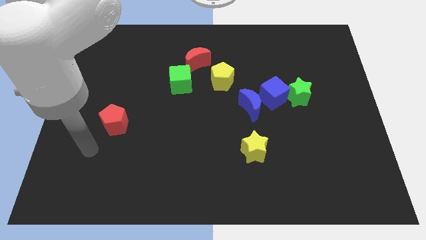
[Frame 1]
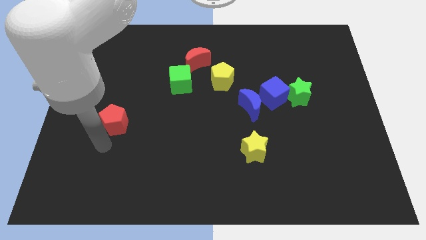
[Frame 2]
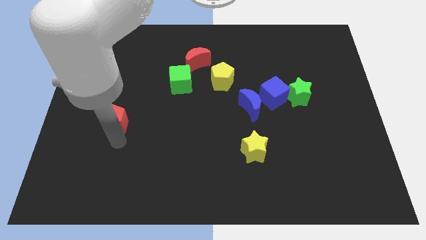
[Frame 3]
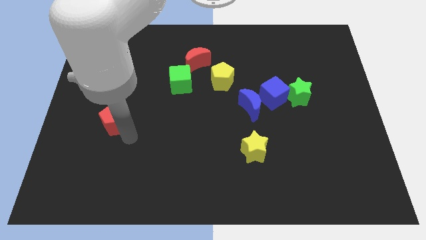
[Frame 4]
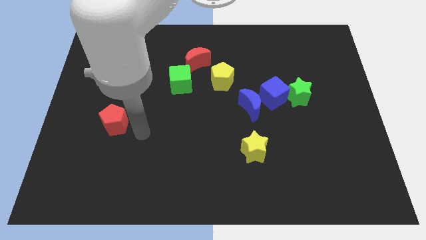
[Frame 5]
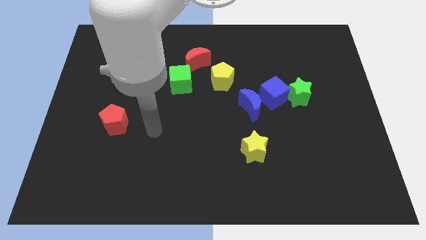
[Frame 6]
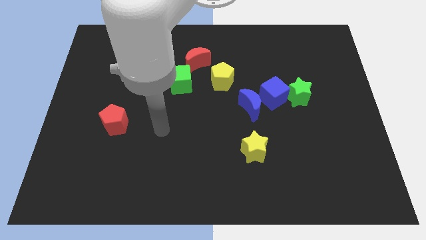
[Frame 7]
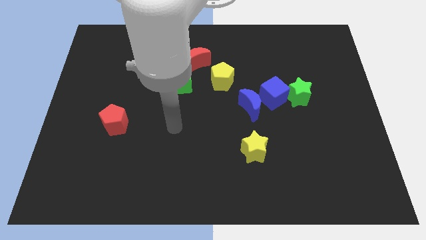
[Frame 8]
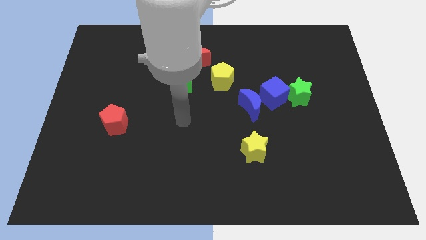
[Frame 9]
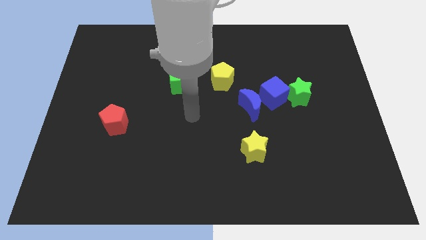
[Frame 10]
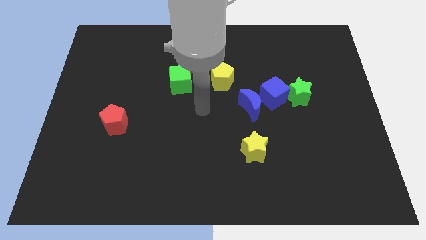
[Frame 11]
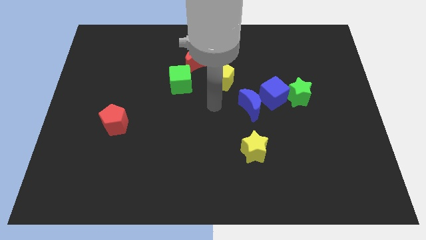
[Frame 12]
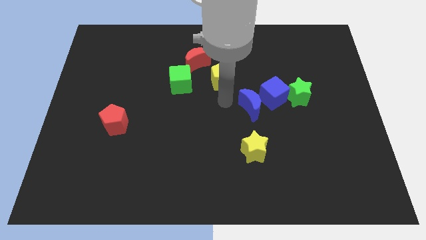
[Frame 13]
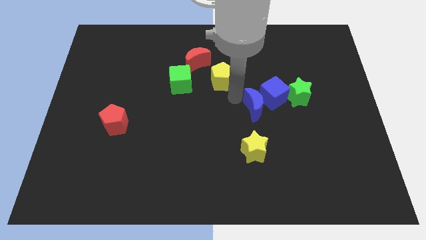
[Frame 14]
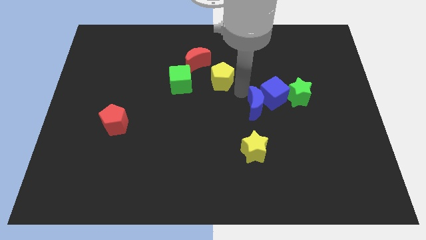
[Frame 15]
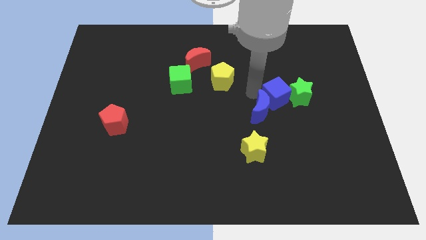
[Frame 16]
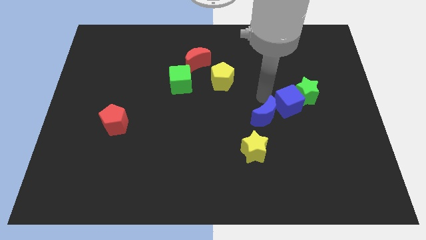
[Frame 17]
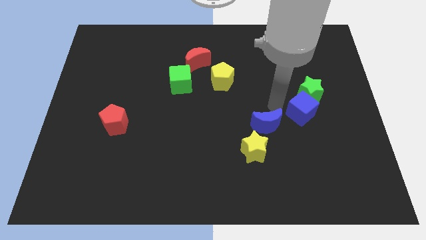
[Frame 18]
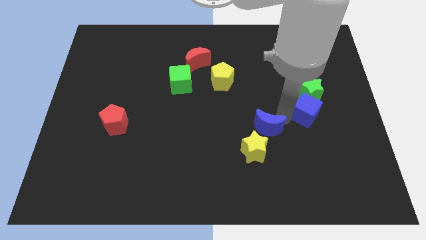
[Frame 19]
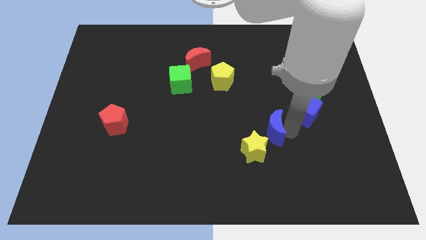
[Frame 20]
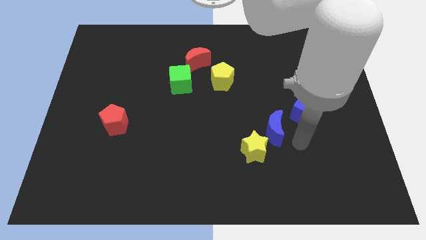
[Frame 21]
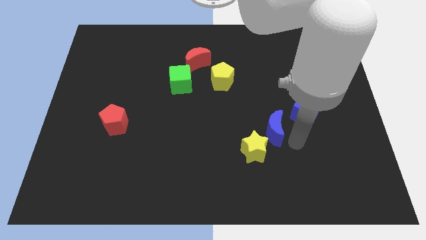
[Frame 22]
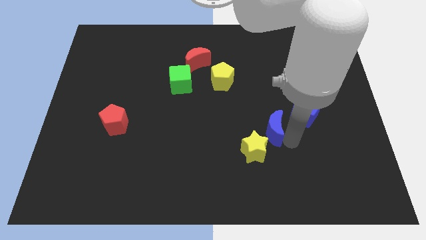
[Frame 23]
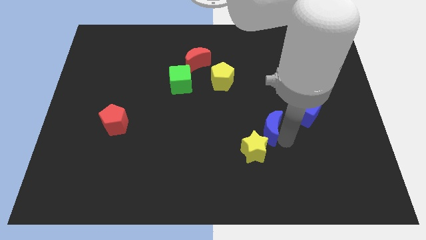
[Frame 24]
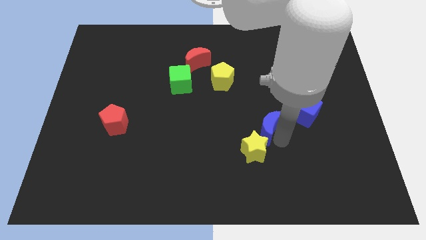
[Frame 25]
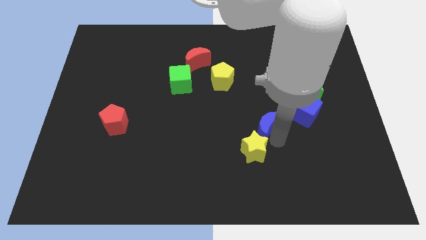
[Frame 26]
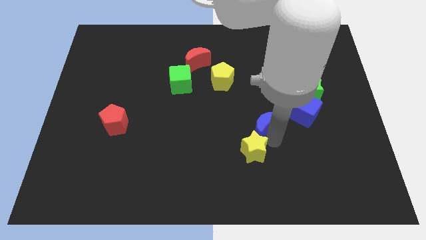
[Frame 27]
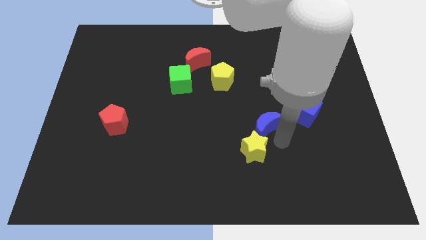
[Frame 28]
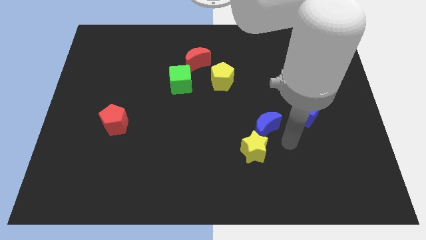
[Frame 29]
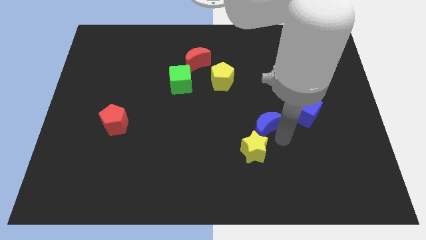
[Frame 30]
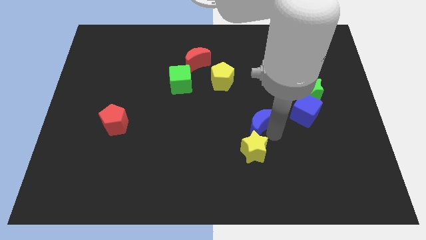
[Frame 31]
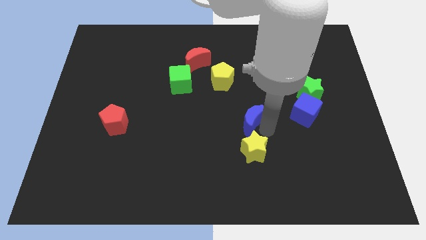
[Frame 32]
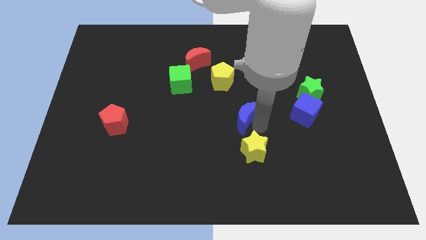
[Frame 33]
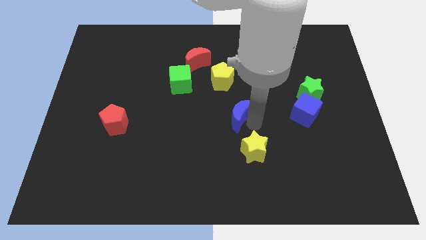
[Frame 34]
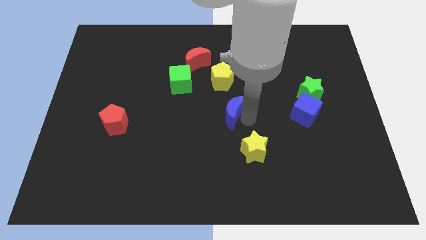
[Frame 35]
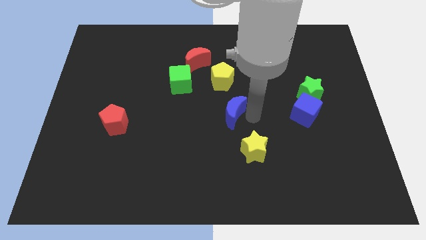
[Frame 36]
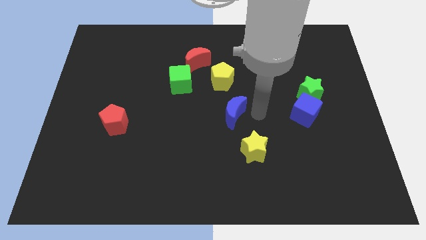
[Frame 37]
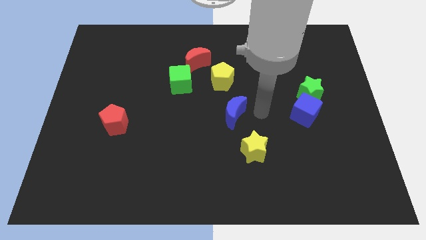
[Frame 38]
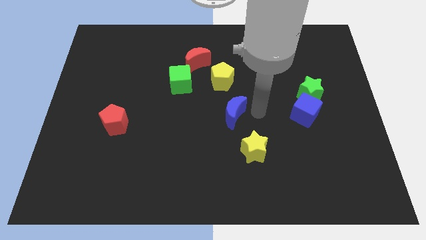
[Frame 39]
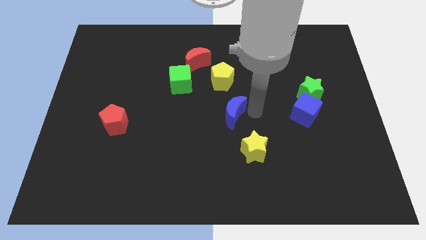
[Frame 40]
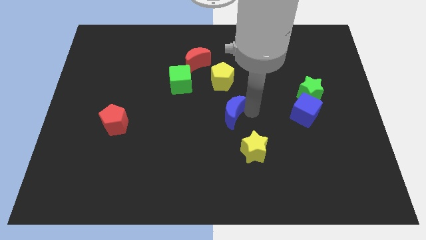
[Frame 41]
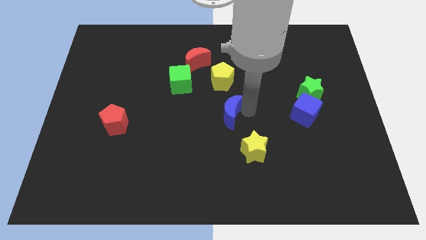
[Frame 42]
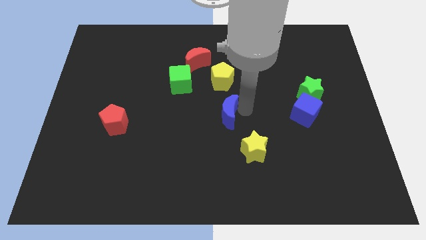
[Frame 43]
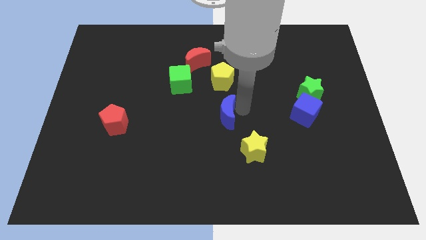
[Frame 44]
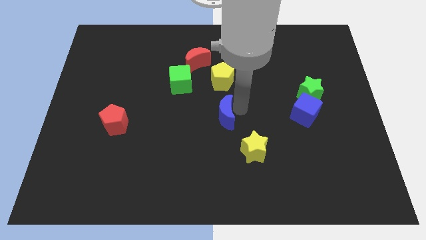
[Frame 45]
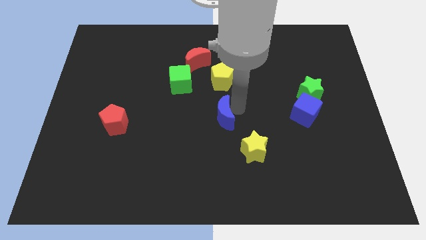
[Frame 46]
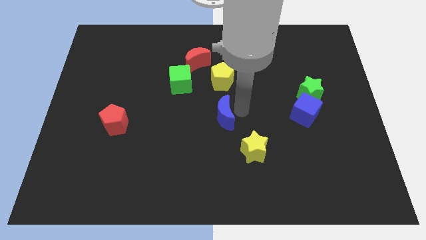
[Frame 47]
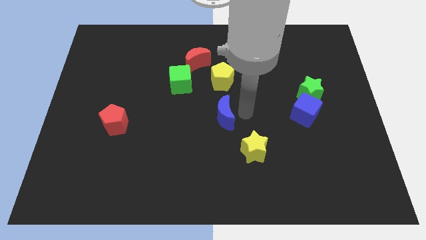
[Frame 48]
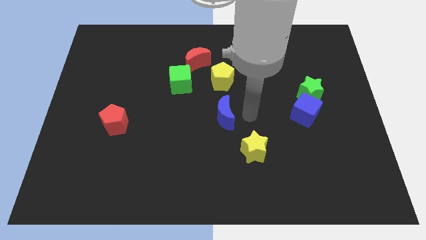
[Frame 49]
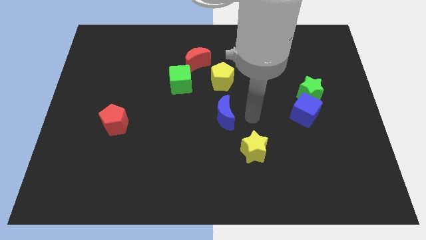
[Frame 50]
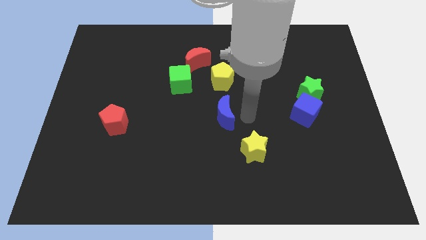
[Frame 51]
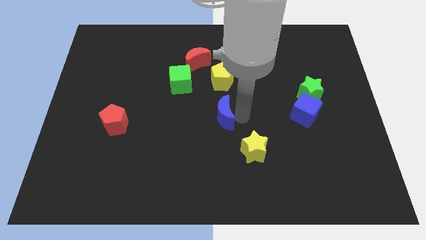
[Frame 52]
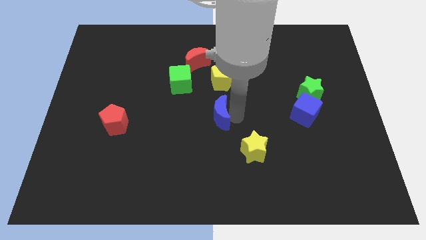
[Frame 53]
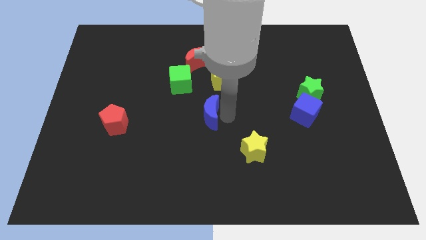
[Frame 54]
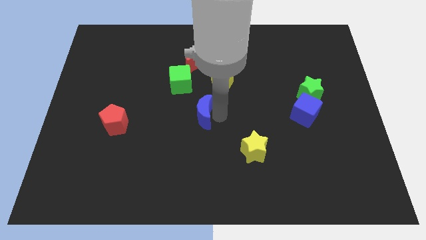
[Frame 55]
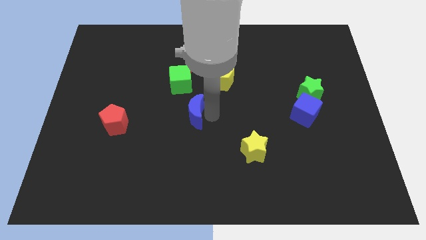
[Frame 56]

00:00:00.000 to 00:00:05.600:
put the blue moon to the bottom side of the green cube
